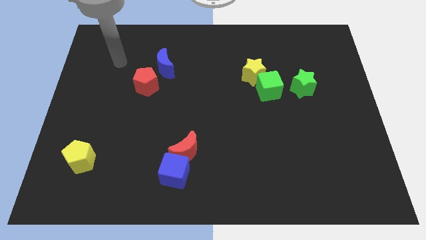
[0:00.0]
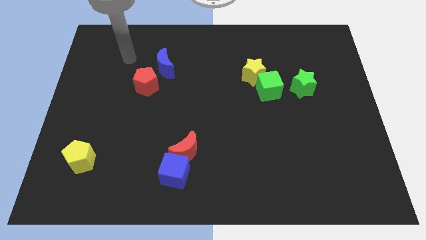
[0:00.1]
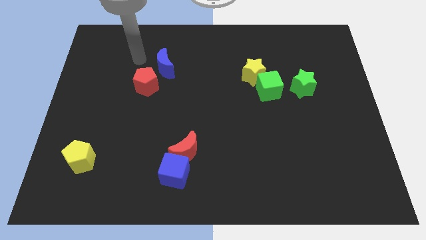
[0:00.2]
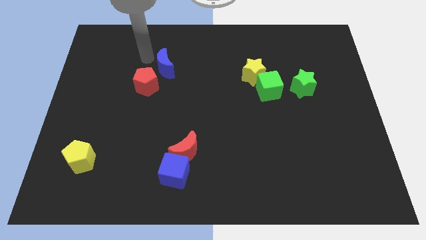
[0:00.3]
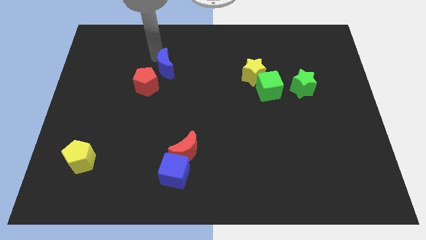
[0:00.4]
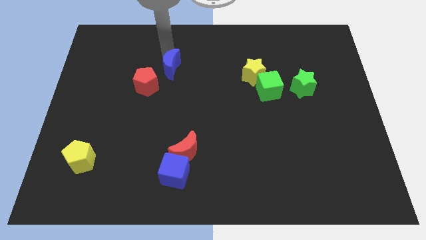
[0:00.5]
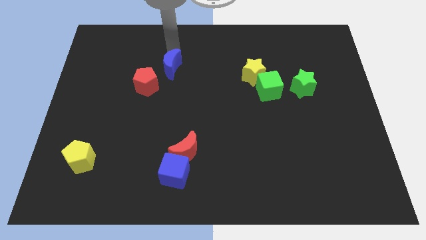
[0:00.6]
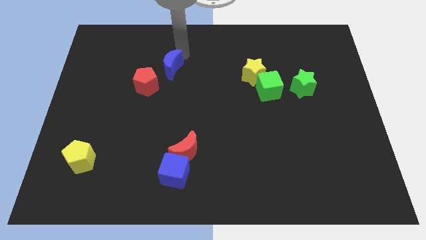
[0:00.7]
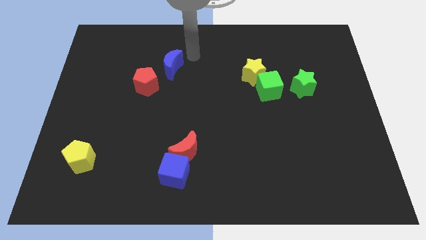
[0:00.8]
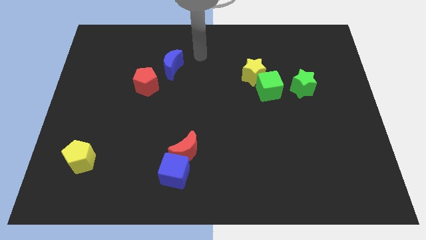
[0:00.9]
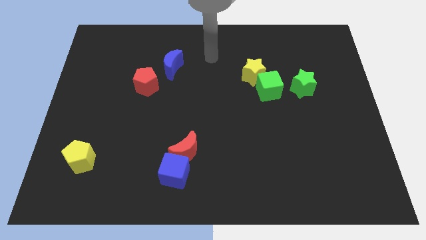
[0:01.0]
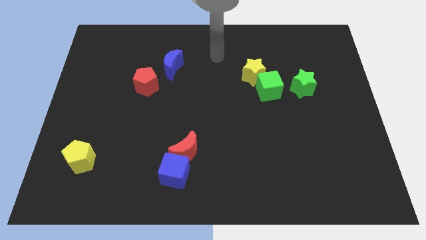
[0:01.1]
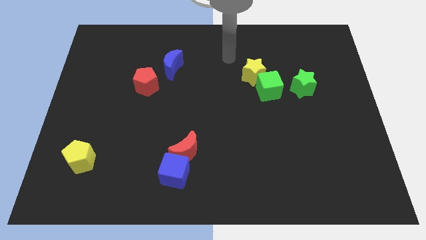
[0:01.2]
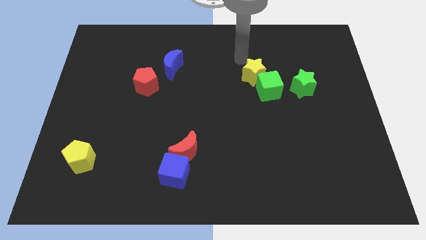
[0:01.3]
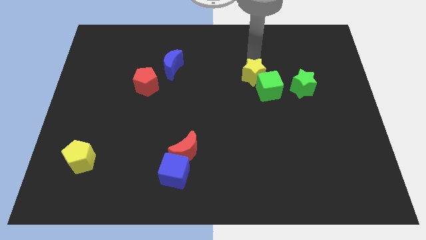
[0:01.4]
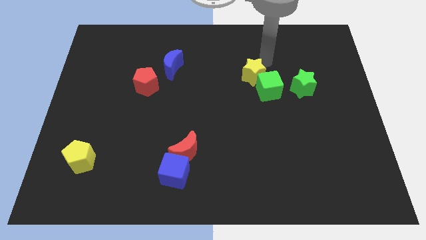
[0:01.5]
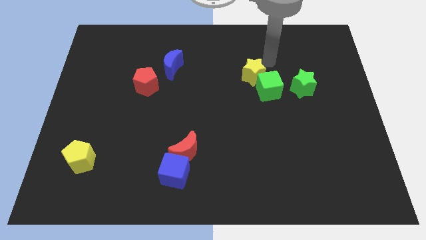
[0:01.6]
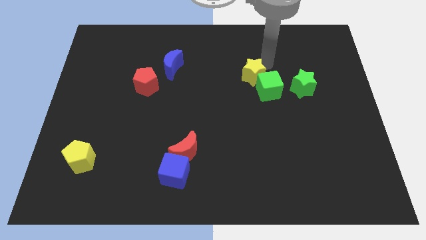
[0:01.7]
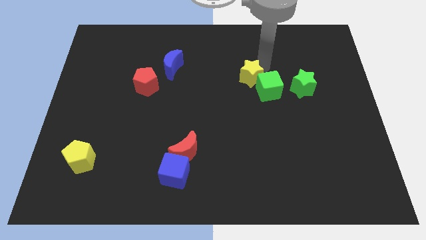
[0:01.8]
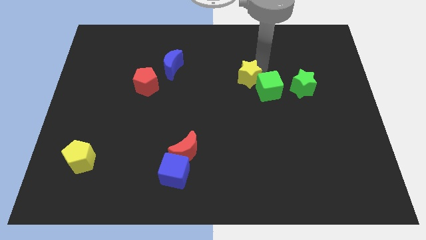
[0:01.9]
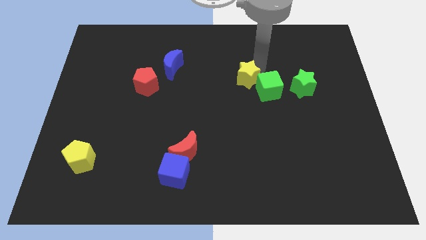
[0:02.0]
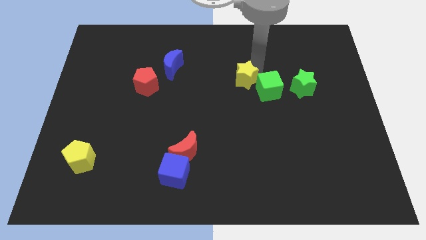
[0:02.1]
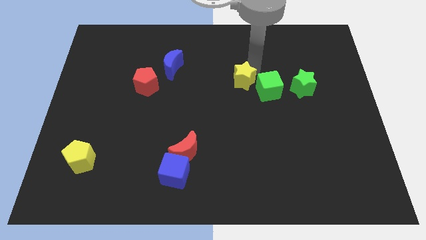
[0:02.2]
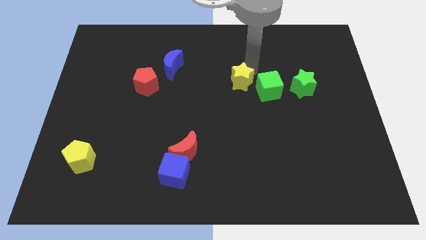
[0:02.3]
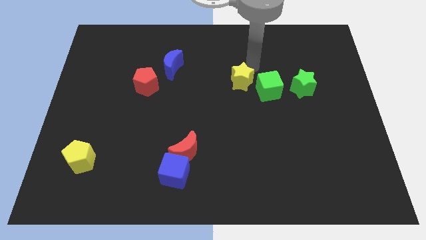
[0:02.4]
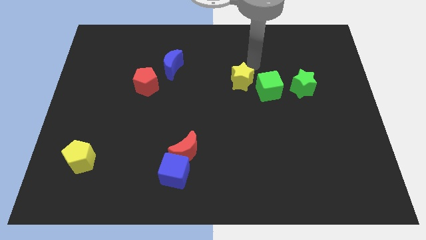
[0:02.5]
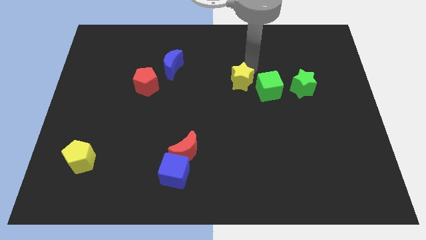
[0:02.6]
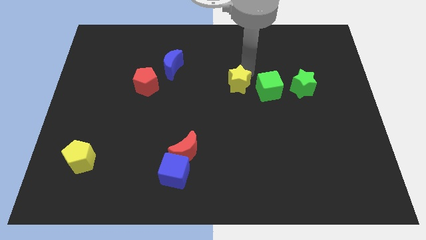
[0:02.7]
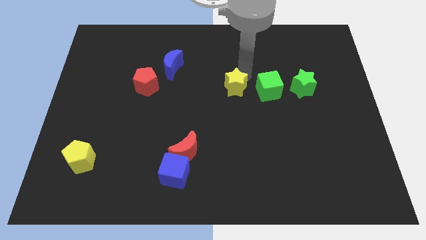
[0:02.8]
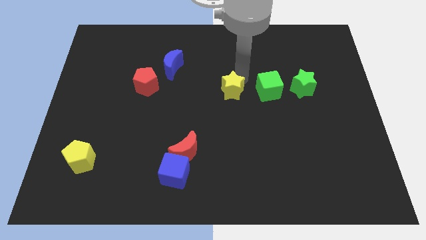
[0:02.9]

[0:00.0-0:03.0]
slide the yellow star down and then to the left slightly

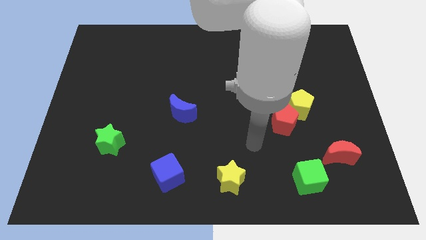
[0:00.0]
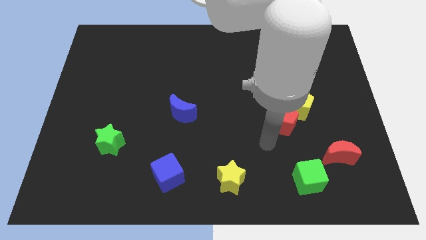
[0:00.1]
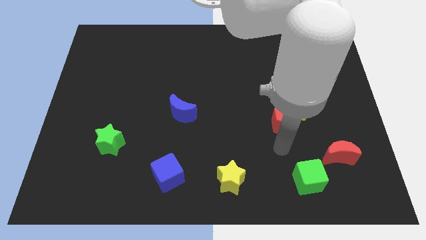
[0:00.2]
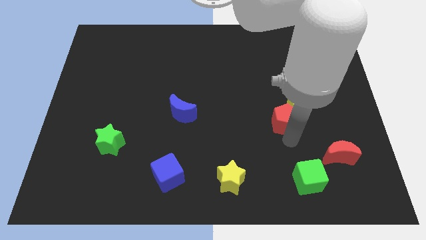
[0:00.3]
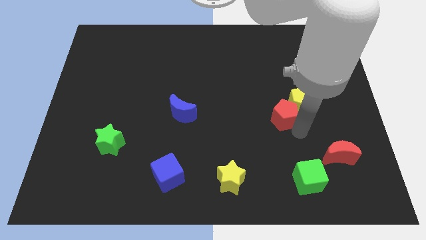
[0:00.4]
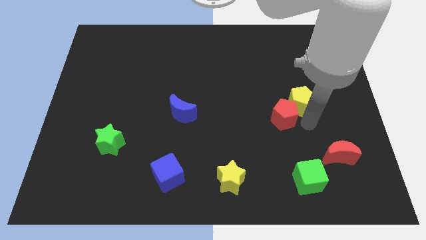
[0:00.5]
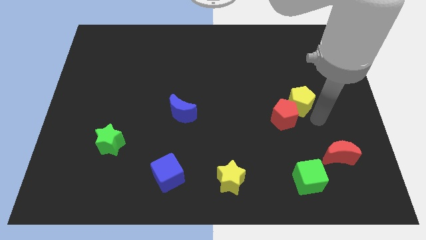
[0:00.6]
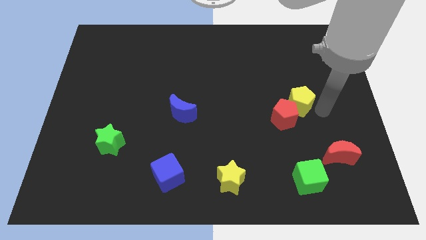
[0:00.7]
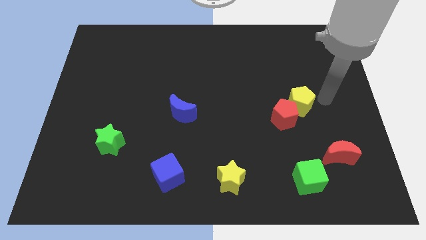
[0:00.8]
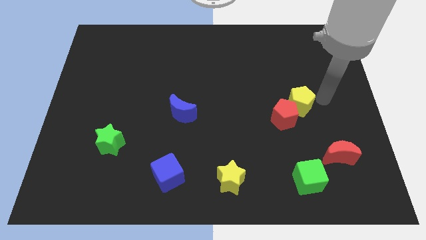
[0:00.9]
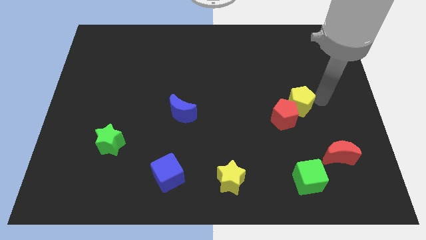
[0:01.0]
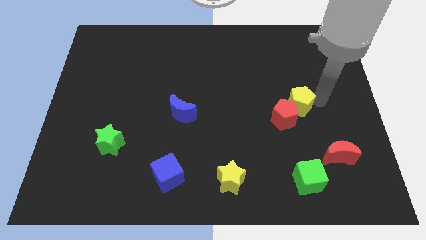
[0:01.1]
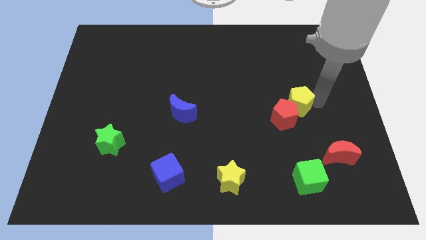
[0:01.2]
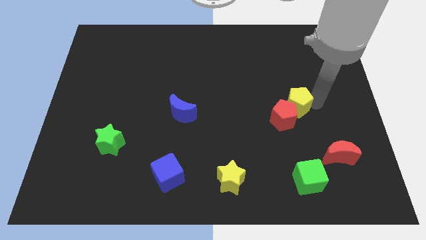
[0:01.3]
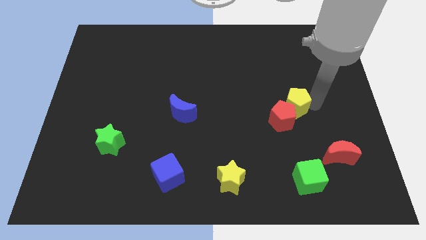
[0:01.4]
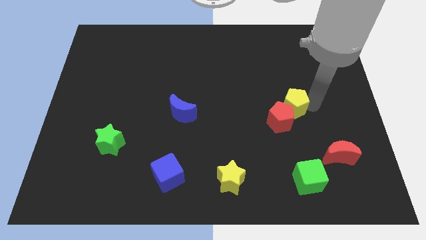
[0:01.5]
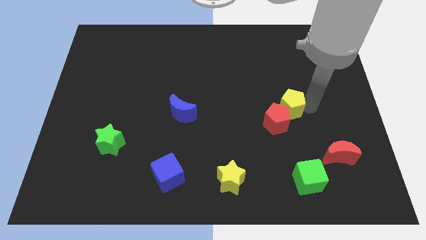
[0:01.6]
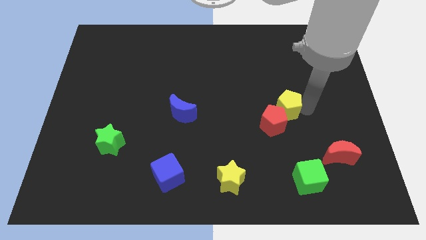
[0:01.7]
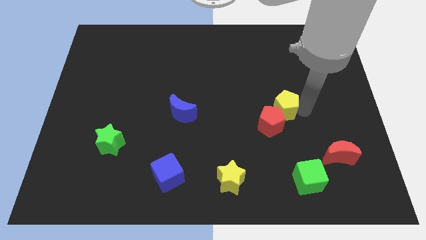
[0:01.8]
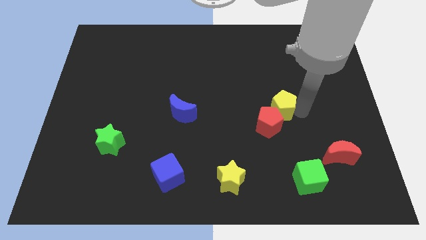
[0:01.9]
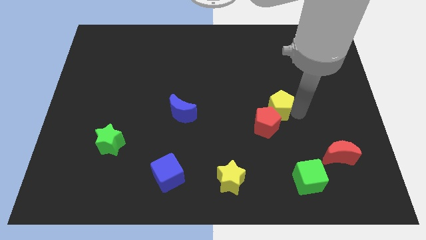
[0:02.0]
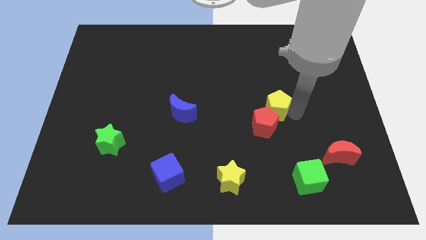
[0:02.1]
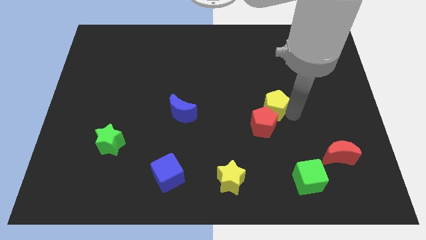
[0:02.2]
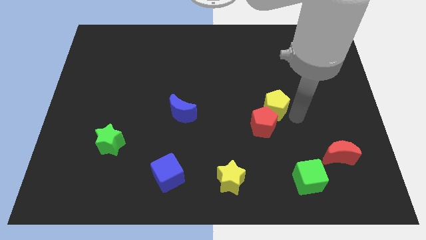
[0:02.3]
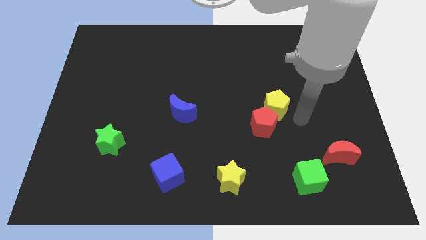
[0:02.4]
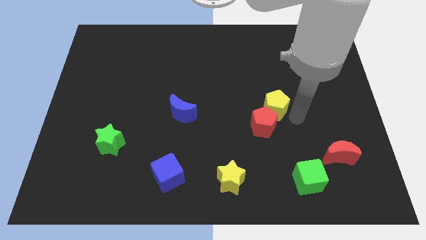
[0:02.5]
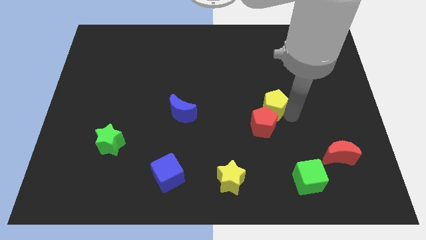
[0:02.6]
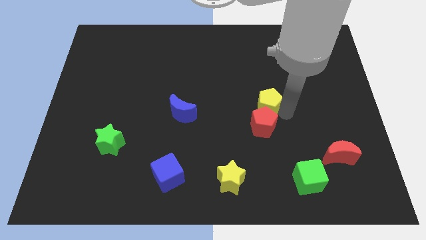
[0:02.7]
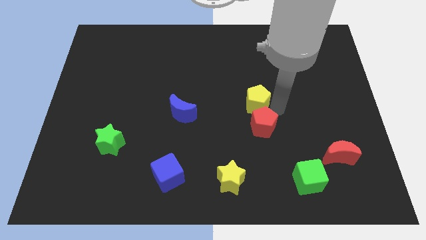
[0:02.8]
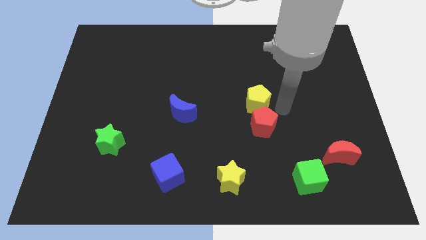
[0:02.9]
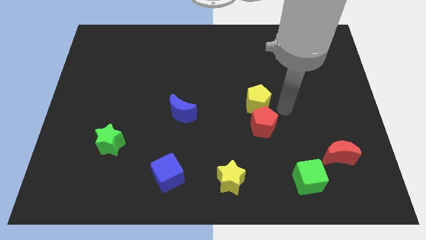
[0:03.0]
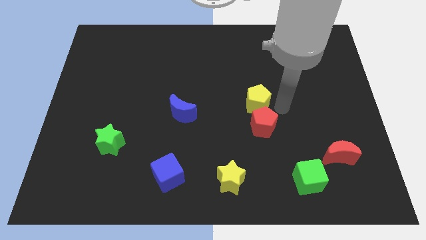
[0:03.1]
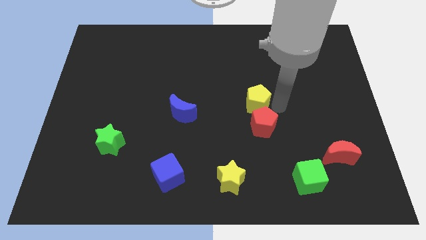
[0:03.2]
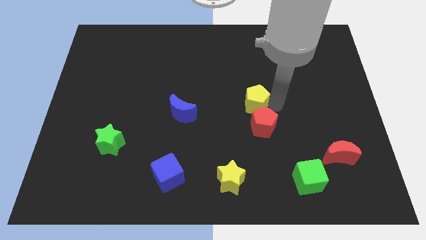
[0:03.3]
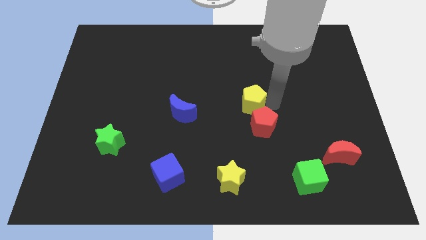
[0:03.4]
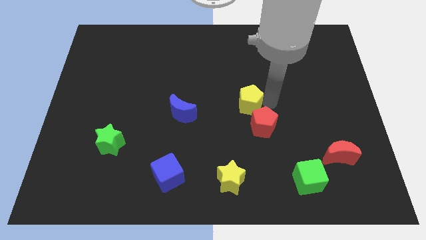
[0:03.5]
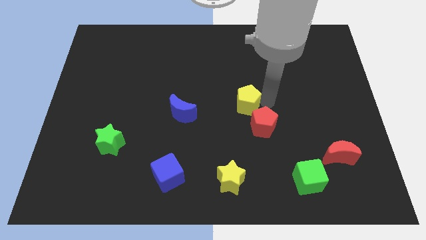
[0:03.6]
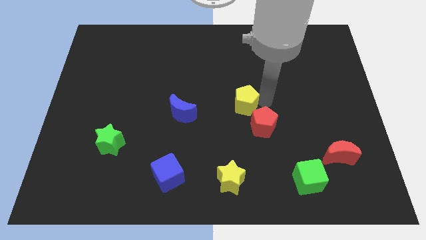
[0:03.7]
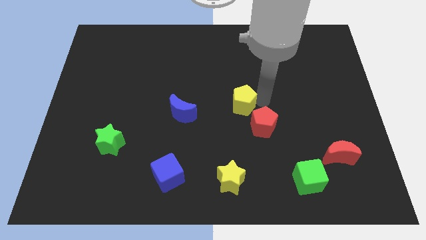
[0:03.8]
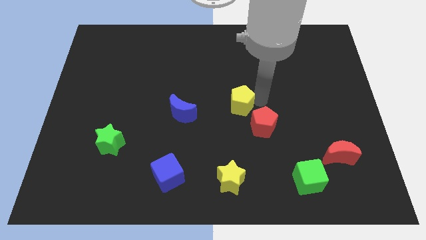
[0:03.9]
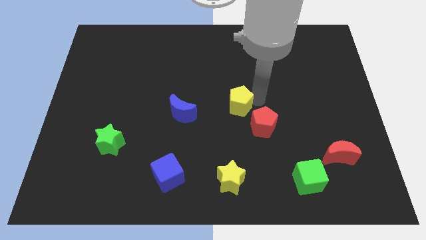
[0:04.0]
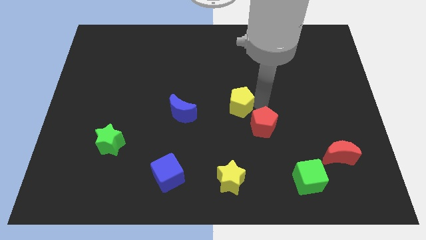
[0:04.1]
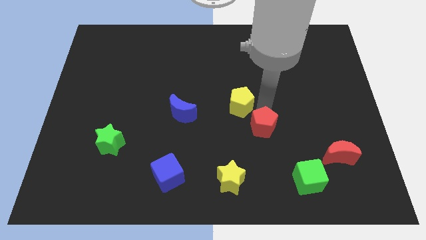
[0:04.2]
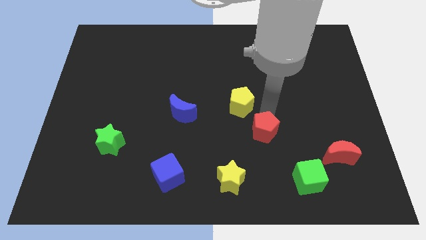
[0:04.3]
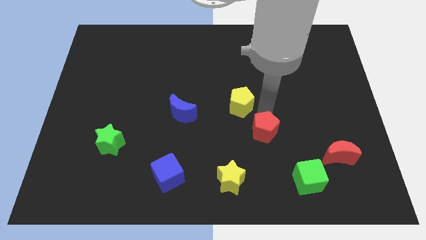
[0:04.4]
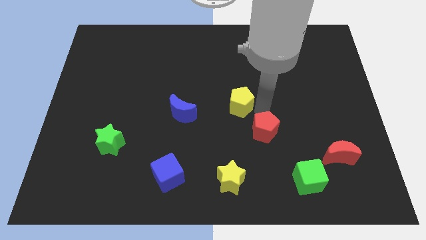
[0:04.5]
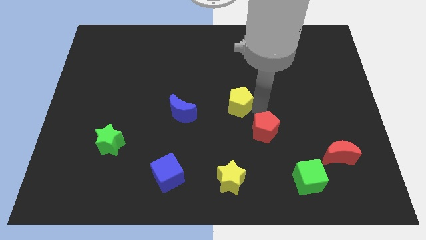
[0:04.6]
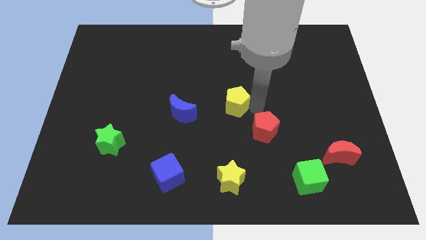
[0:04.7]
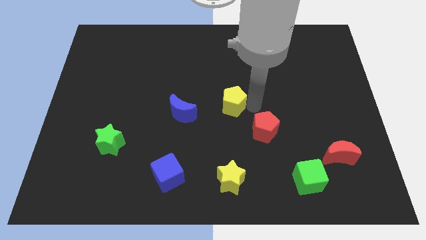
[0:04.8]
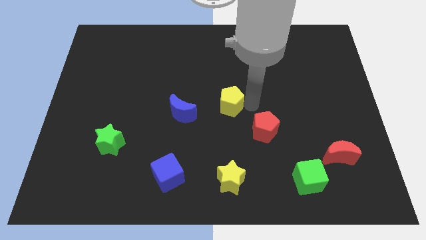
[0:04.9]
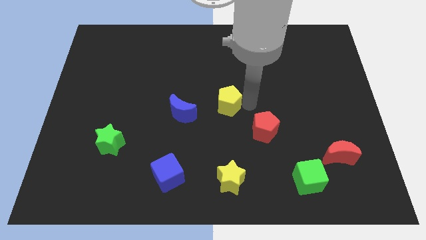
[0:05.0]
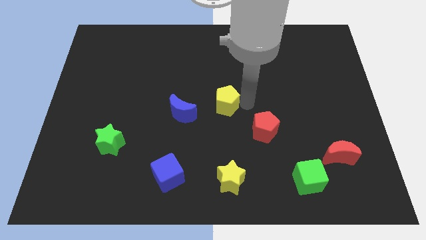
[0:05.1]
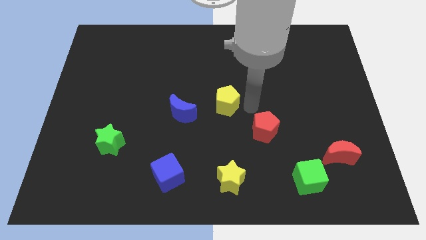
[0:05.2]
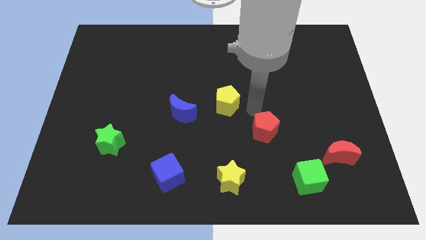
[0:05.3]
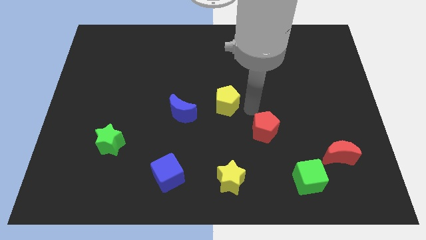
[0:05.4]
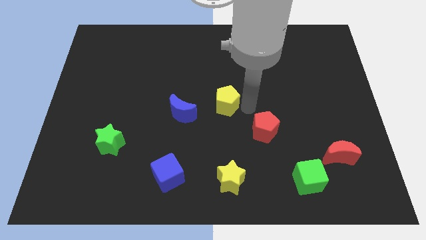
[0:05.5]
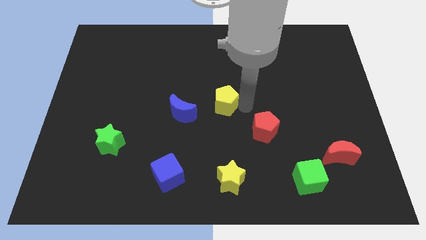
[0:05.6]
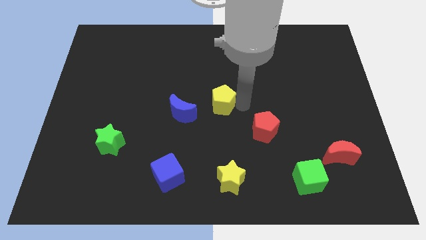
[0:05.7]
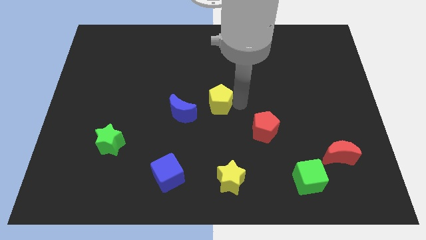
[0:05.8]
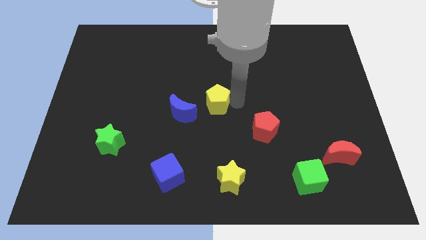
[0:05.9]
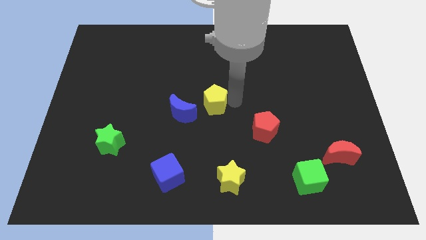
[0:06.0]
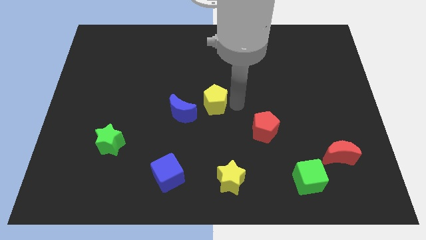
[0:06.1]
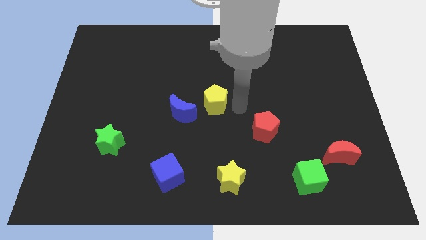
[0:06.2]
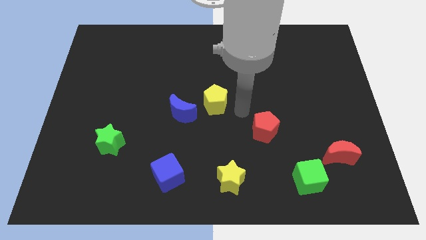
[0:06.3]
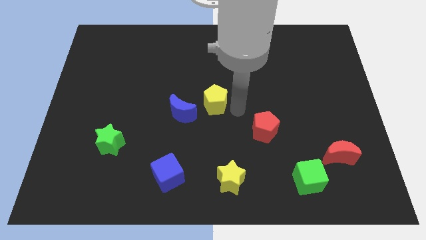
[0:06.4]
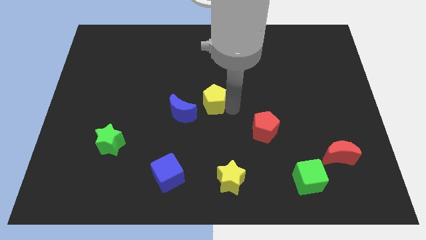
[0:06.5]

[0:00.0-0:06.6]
push the yellow pentagon to the left
